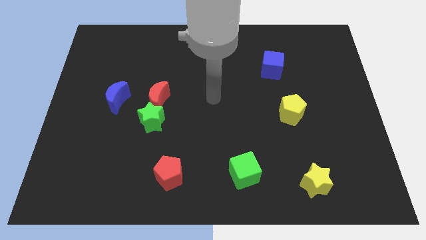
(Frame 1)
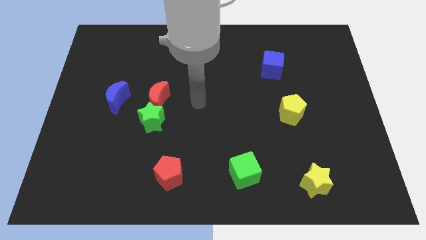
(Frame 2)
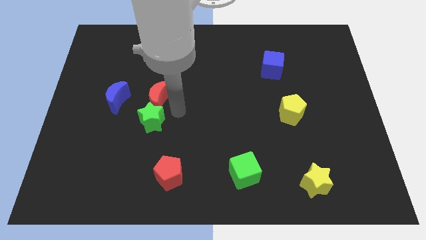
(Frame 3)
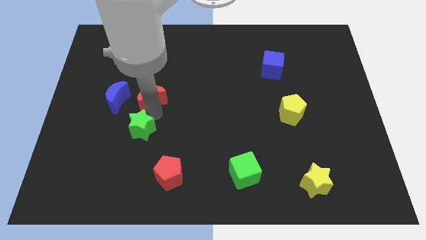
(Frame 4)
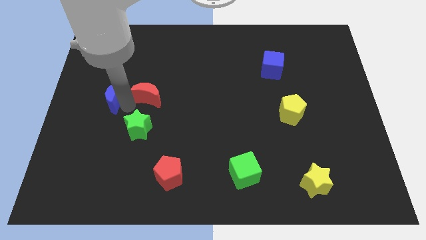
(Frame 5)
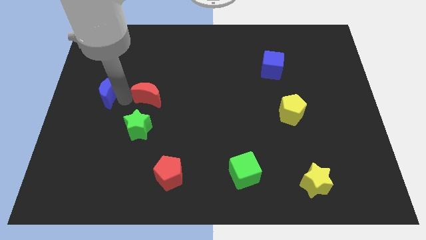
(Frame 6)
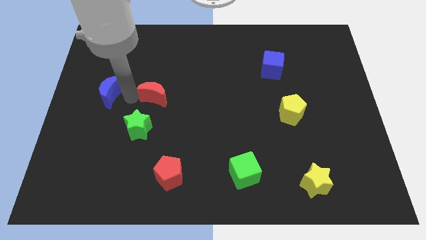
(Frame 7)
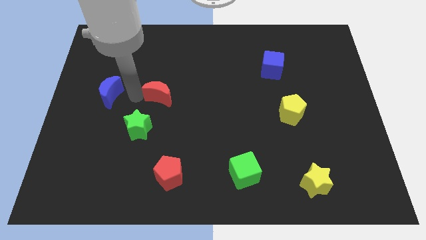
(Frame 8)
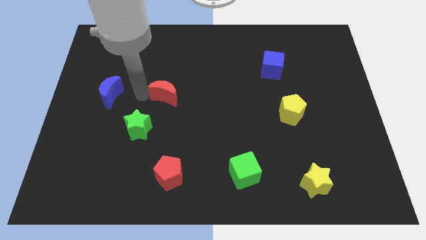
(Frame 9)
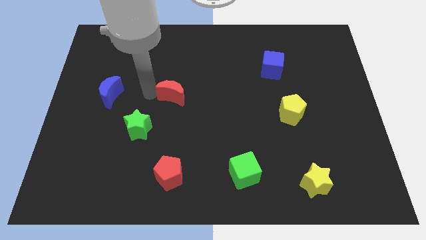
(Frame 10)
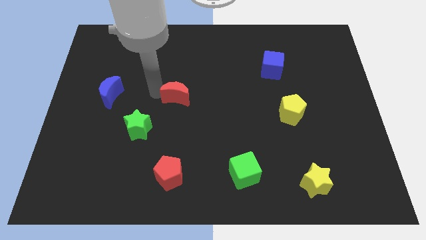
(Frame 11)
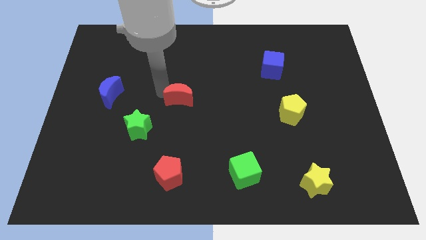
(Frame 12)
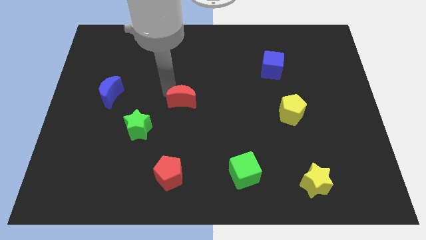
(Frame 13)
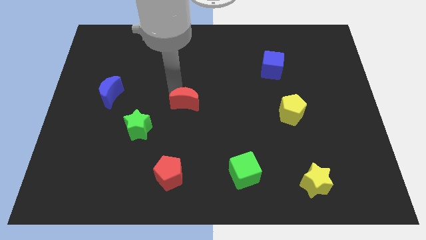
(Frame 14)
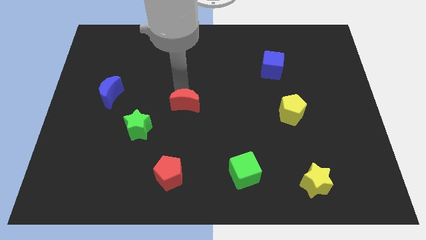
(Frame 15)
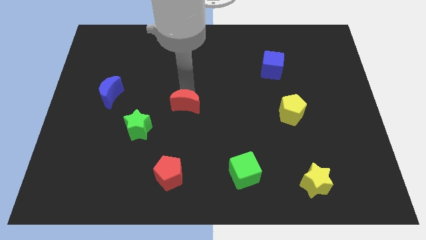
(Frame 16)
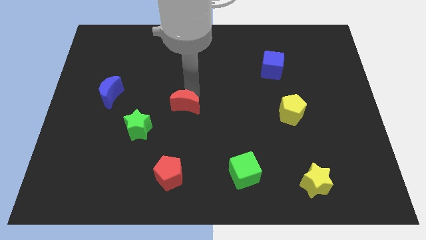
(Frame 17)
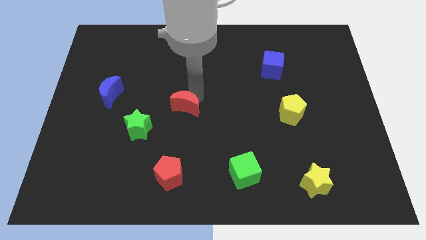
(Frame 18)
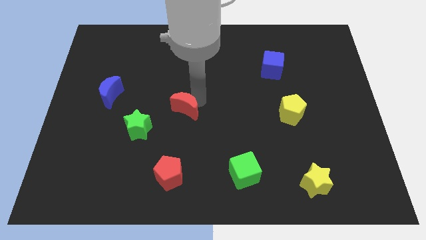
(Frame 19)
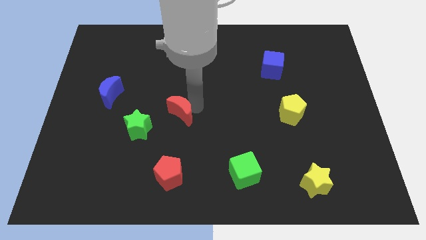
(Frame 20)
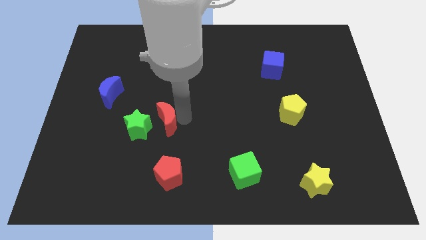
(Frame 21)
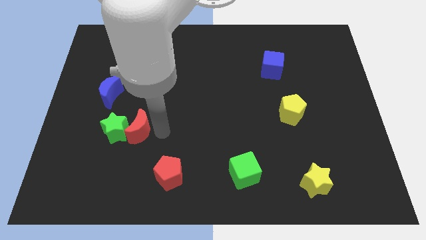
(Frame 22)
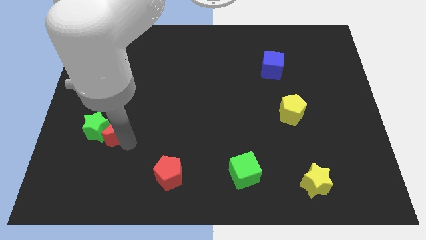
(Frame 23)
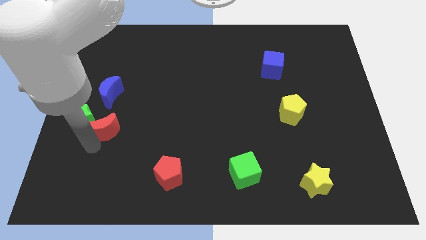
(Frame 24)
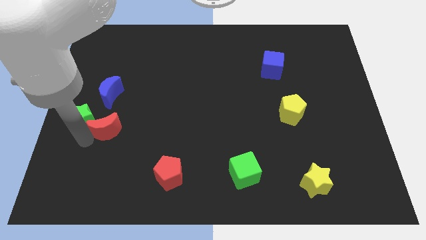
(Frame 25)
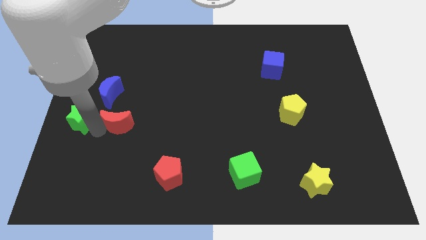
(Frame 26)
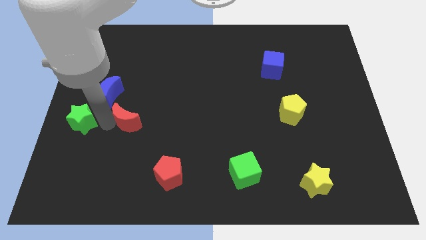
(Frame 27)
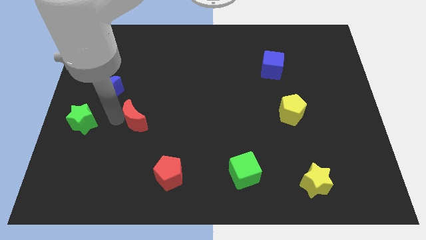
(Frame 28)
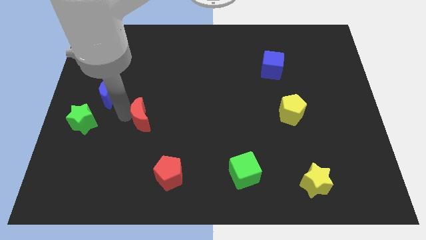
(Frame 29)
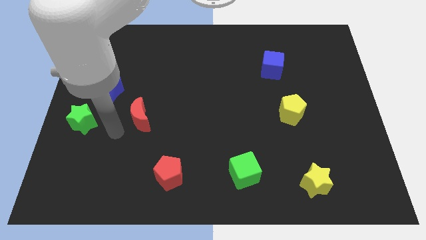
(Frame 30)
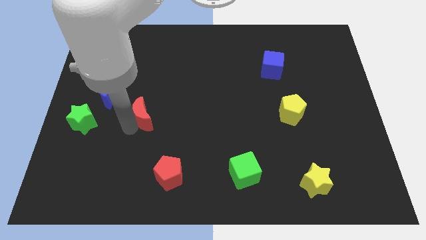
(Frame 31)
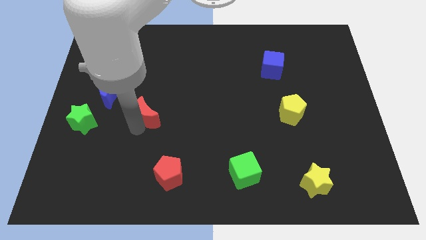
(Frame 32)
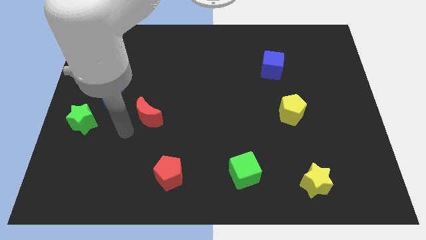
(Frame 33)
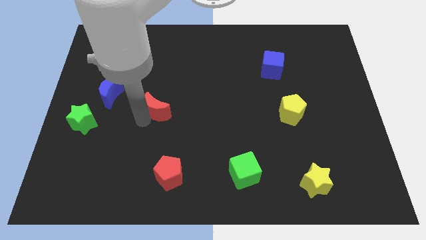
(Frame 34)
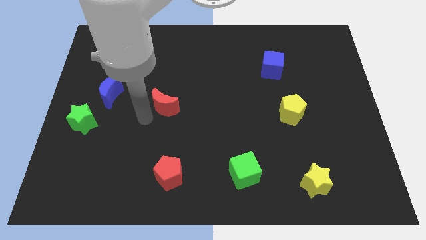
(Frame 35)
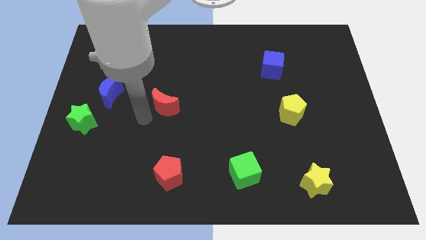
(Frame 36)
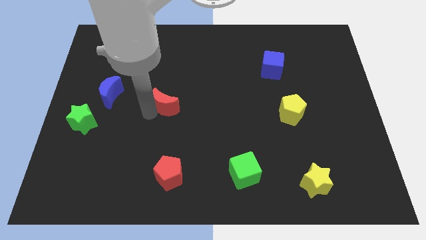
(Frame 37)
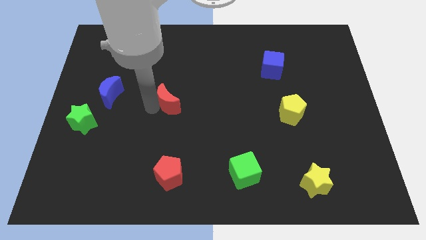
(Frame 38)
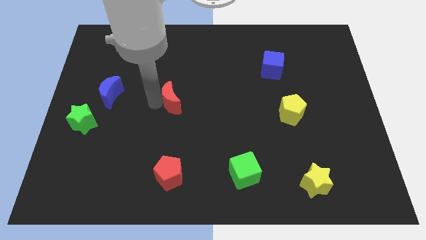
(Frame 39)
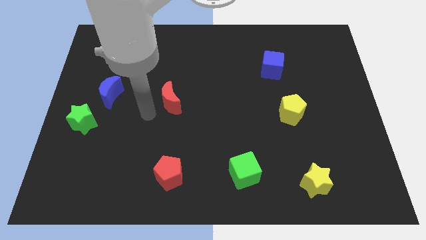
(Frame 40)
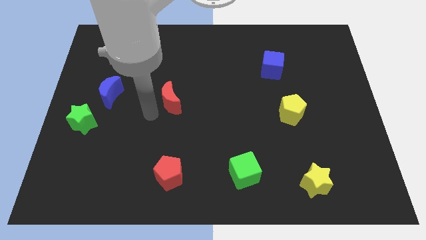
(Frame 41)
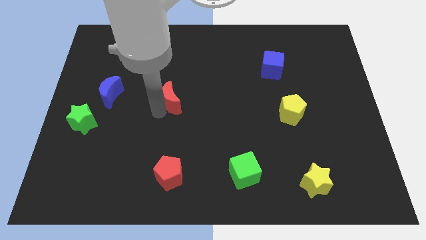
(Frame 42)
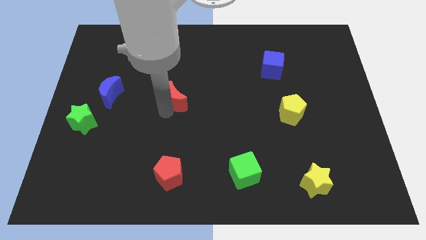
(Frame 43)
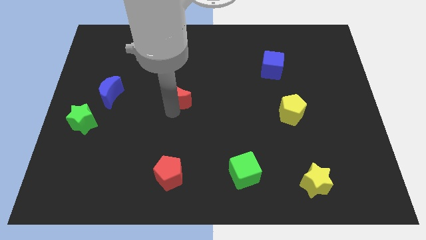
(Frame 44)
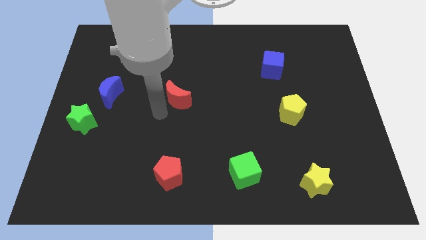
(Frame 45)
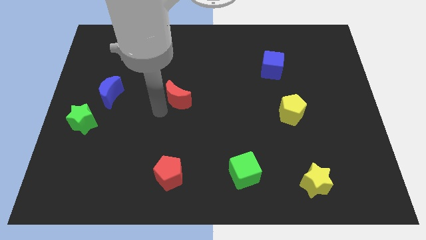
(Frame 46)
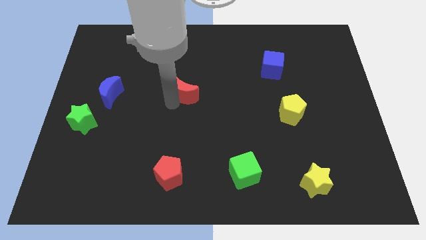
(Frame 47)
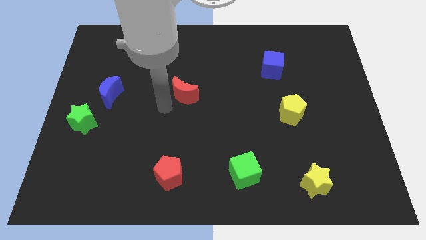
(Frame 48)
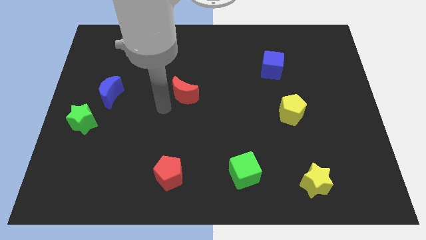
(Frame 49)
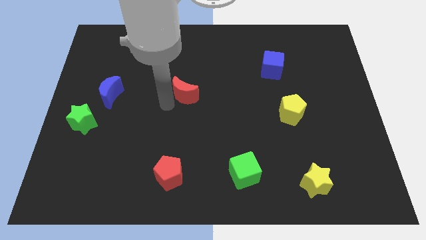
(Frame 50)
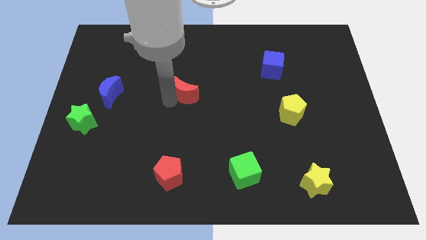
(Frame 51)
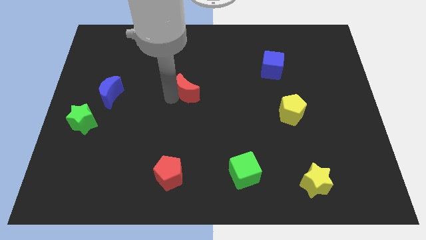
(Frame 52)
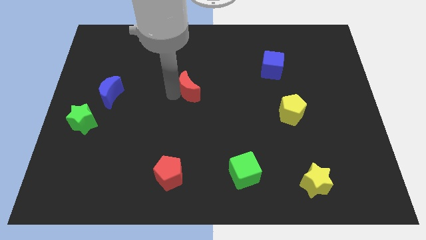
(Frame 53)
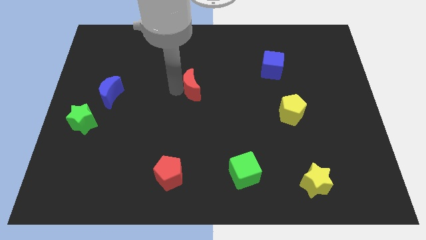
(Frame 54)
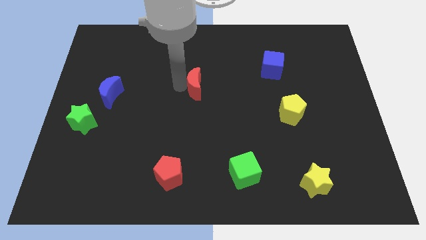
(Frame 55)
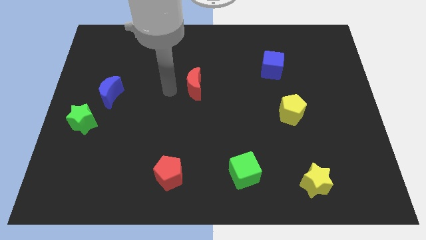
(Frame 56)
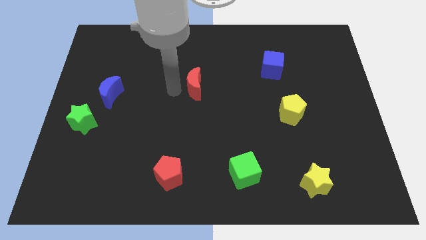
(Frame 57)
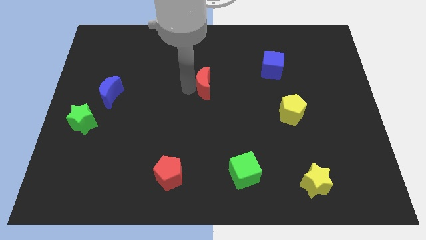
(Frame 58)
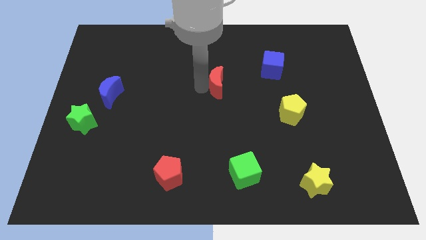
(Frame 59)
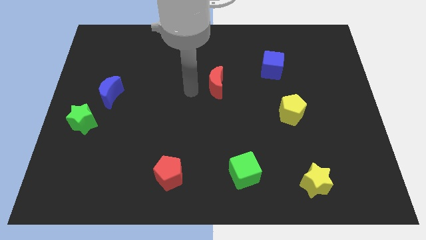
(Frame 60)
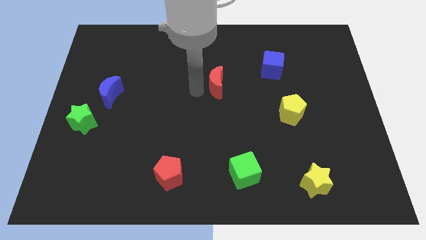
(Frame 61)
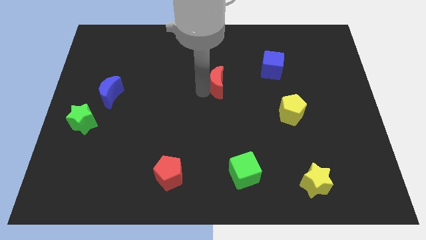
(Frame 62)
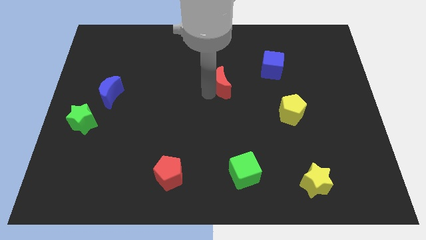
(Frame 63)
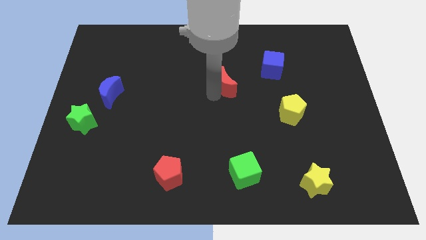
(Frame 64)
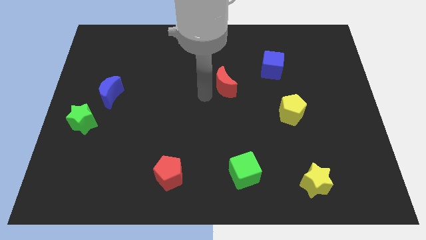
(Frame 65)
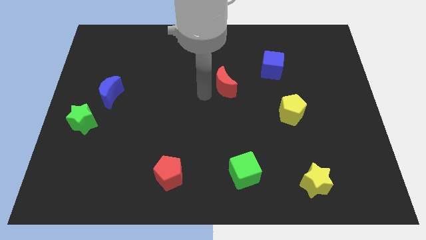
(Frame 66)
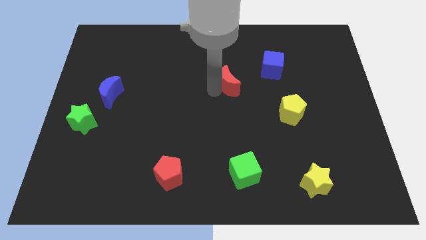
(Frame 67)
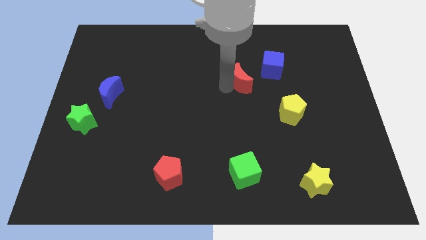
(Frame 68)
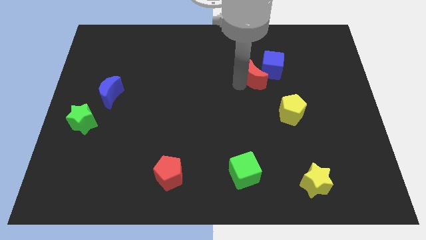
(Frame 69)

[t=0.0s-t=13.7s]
push the red moon close to the blue cube

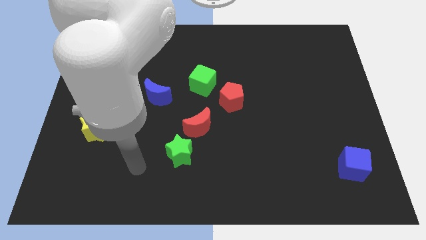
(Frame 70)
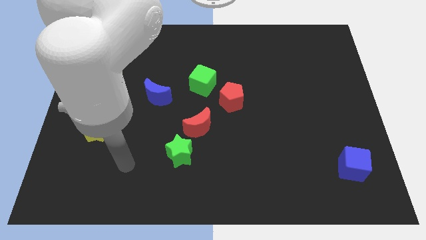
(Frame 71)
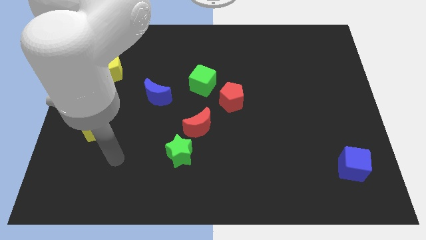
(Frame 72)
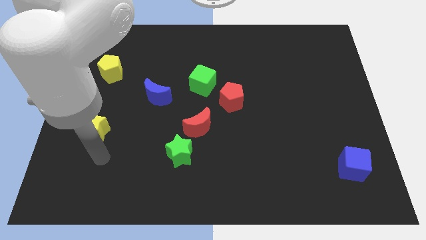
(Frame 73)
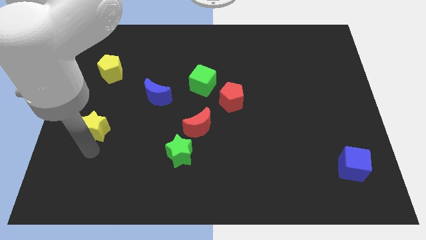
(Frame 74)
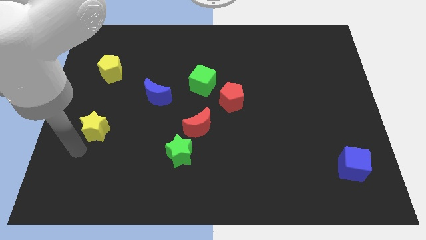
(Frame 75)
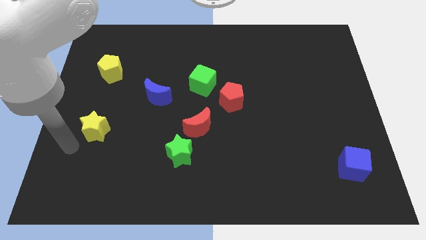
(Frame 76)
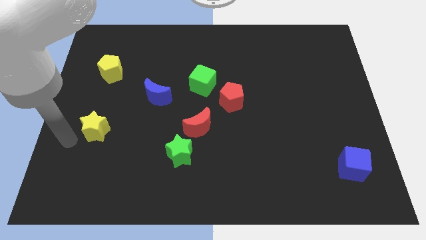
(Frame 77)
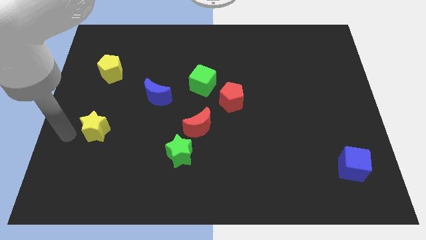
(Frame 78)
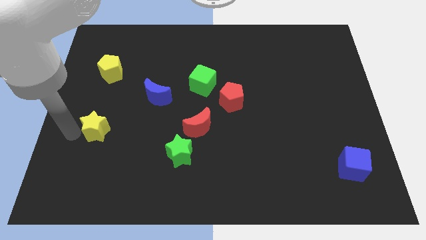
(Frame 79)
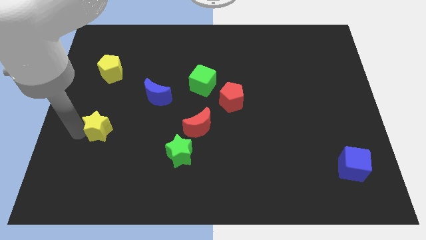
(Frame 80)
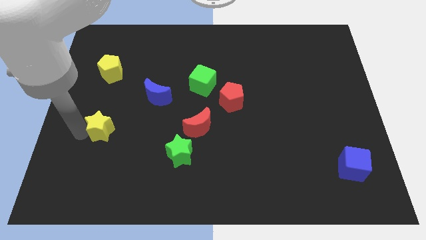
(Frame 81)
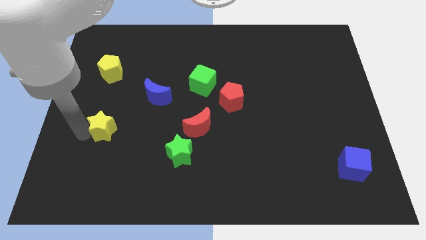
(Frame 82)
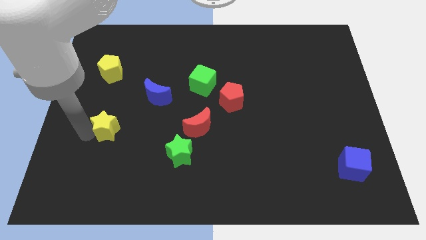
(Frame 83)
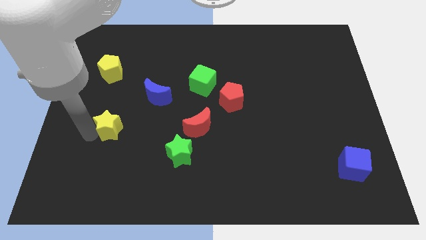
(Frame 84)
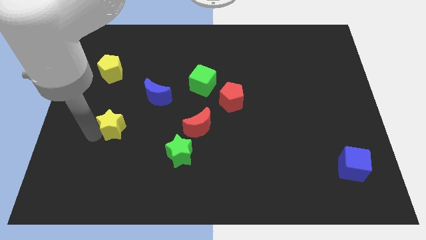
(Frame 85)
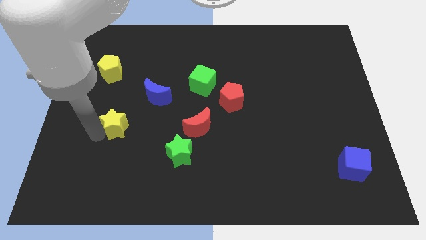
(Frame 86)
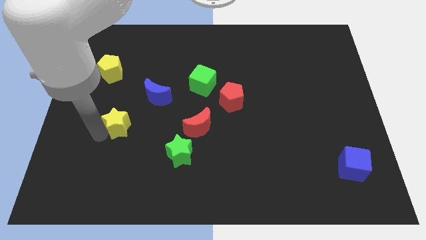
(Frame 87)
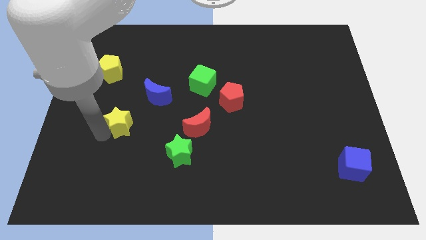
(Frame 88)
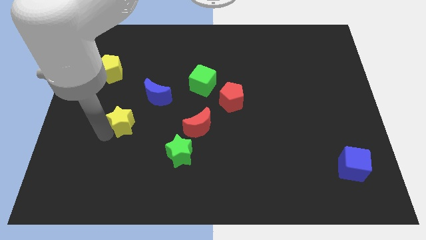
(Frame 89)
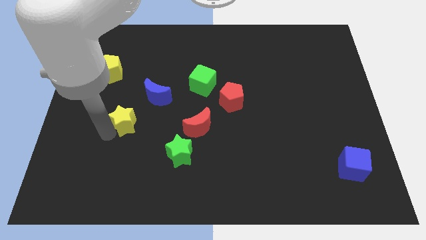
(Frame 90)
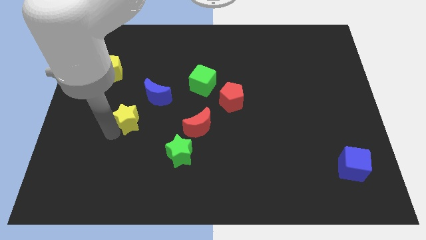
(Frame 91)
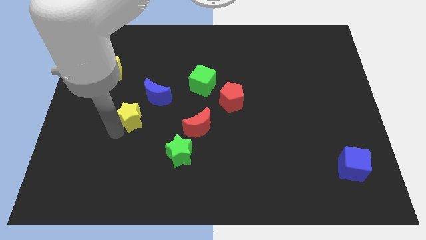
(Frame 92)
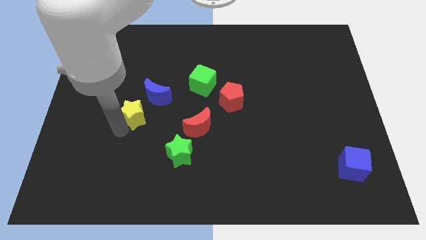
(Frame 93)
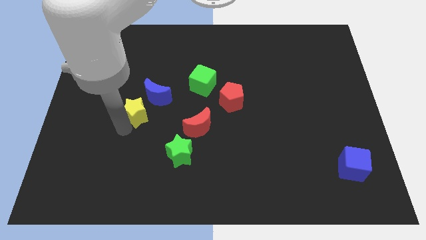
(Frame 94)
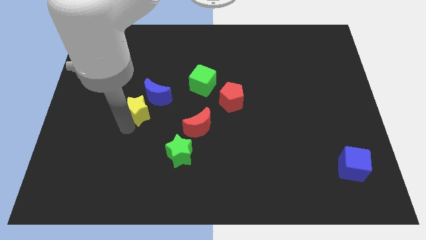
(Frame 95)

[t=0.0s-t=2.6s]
move the yellow star to the blue moon
